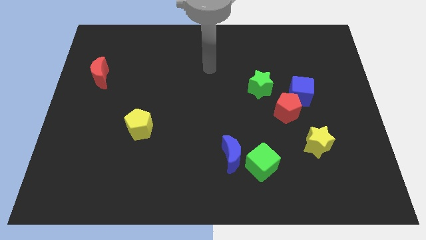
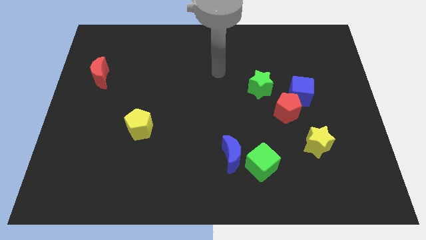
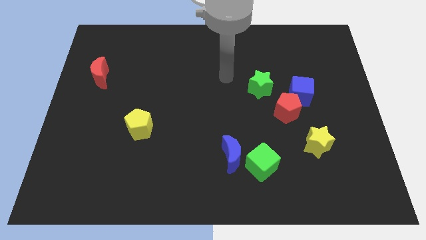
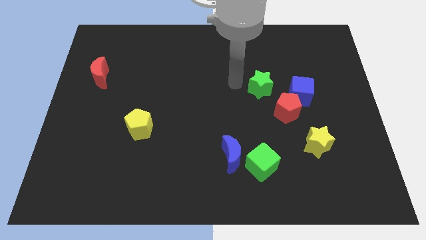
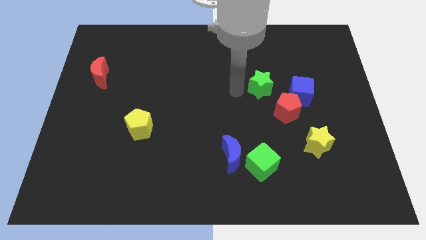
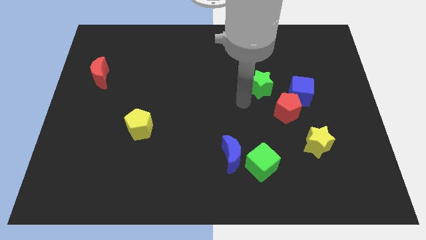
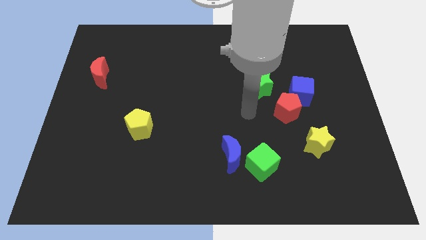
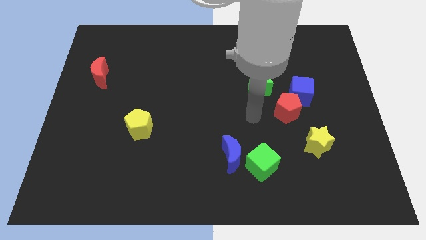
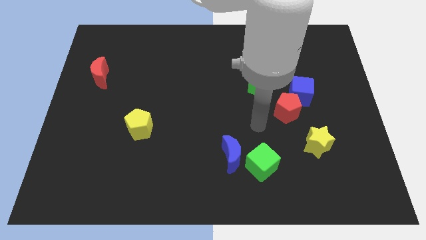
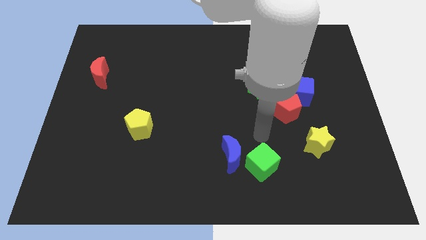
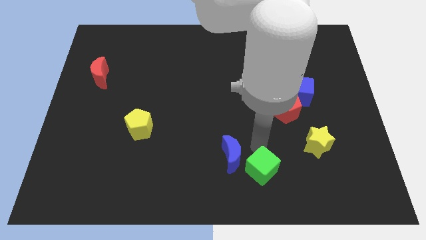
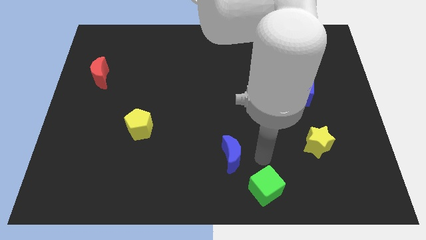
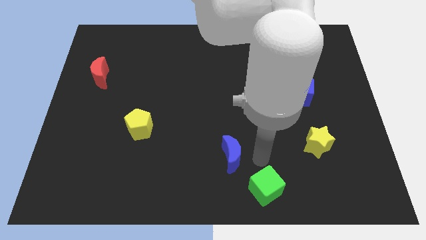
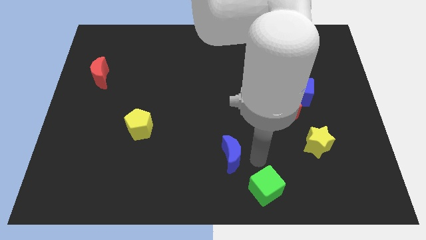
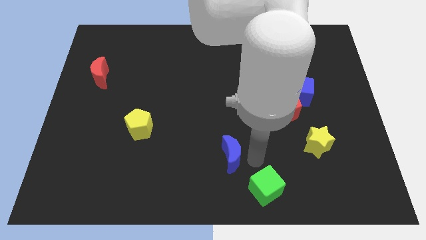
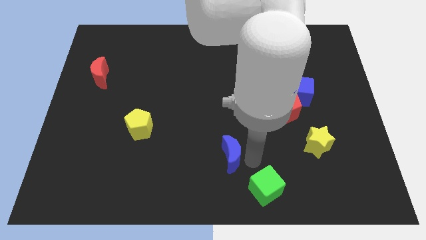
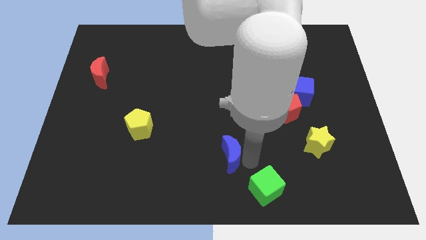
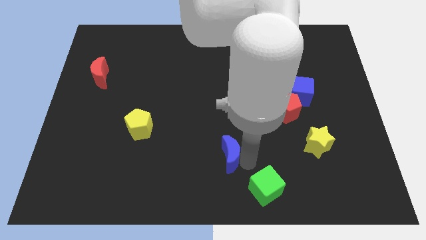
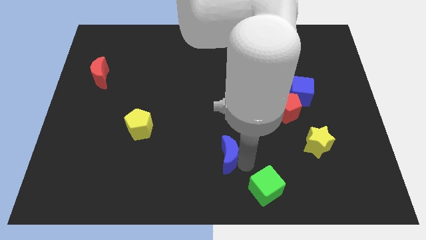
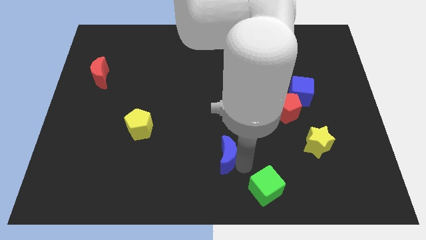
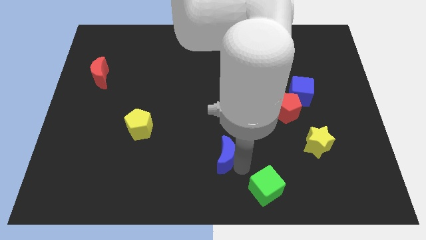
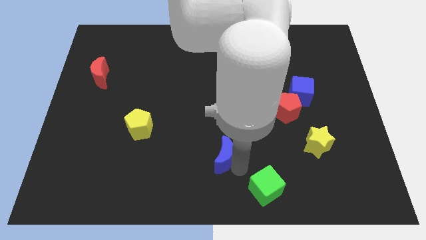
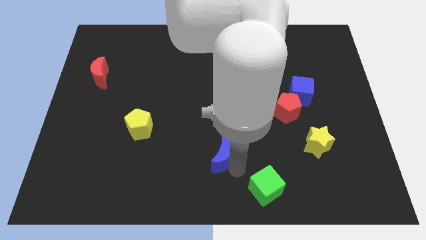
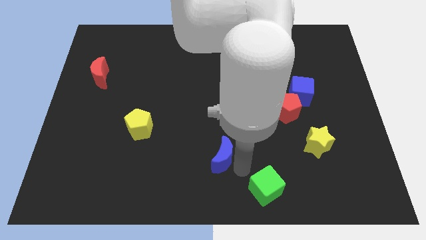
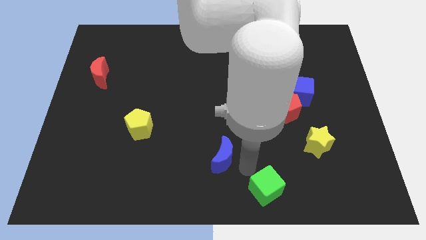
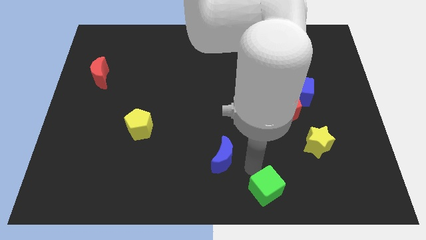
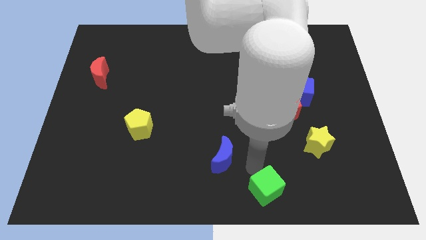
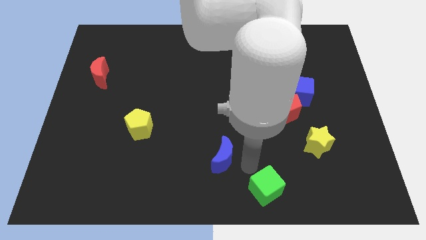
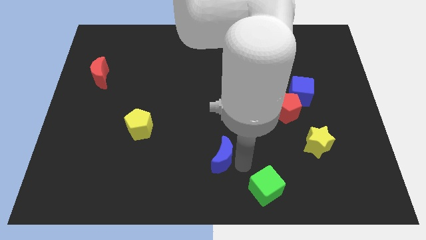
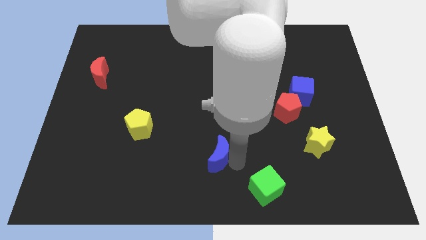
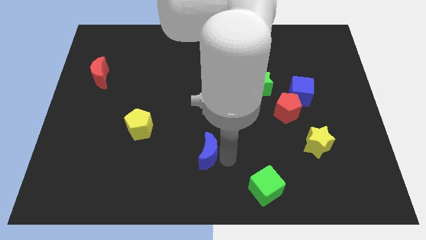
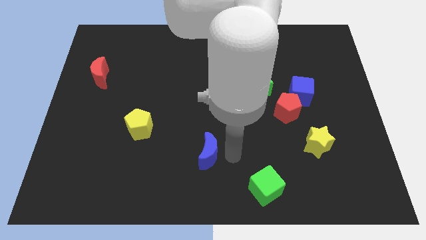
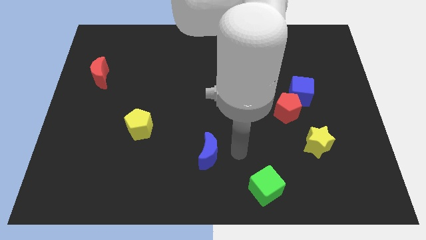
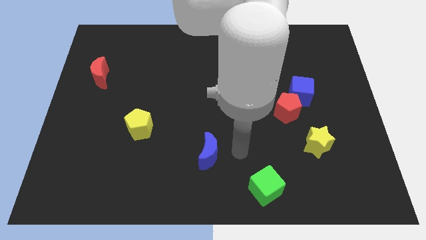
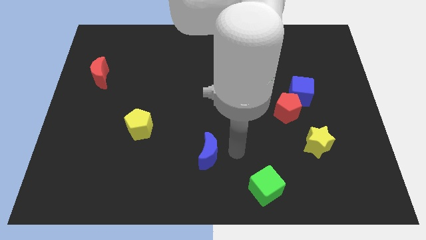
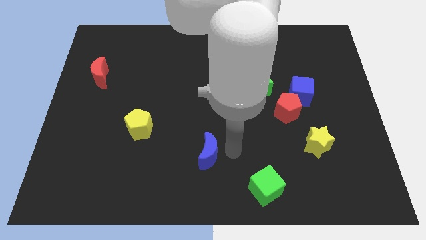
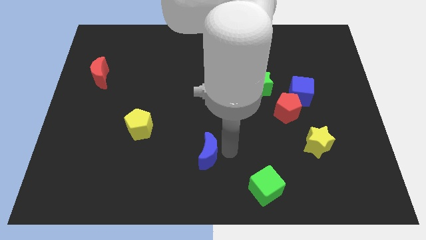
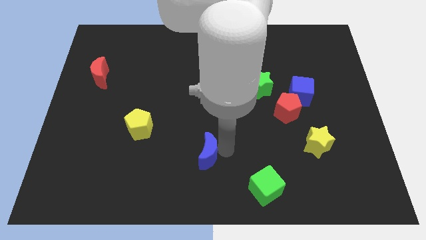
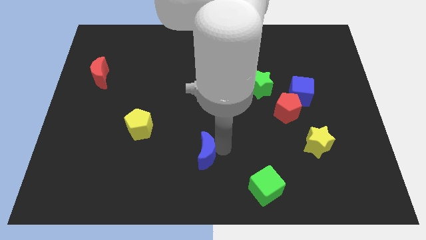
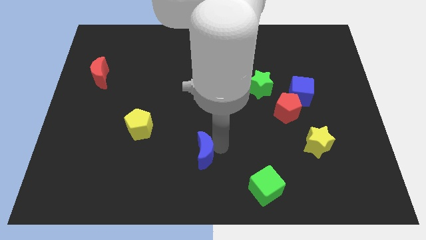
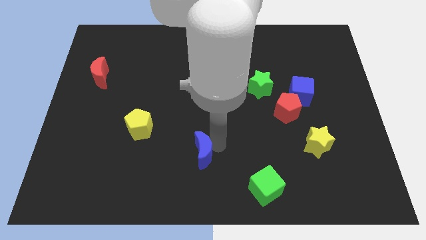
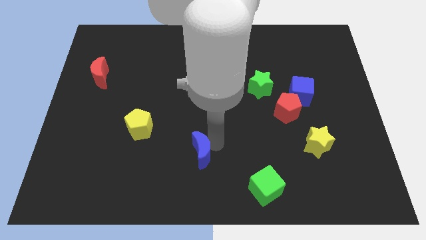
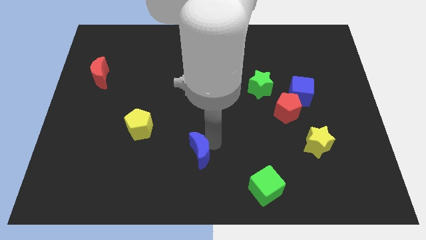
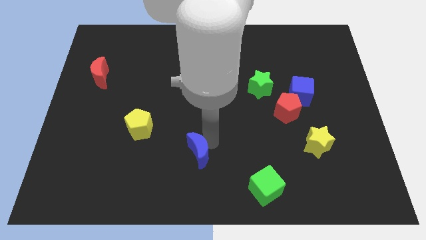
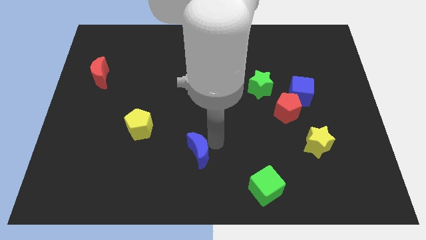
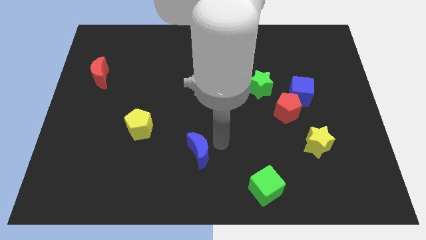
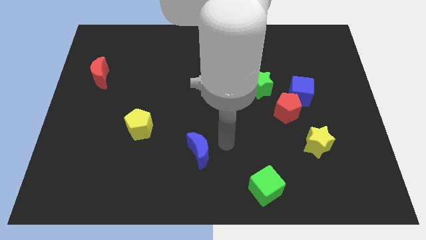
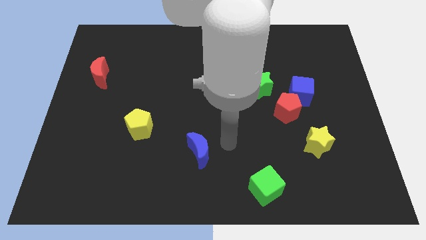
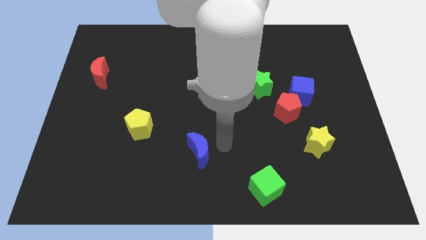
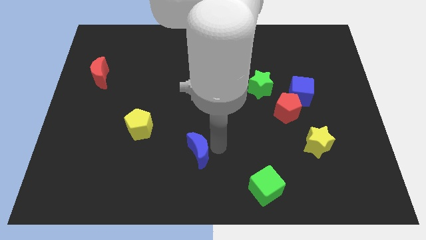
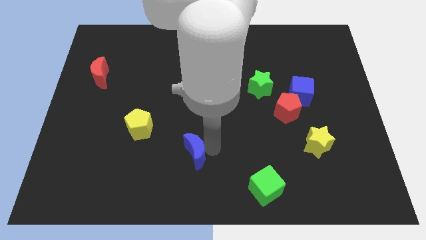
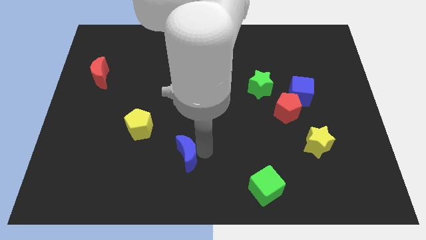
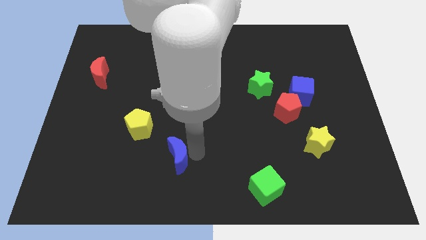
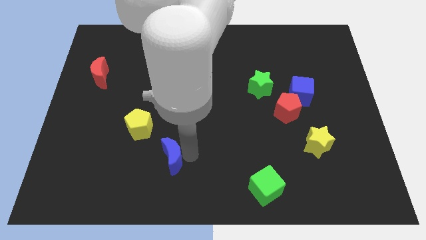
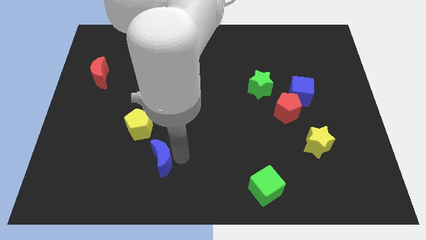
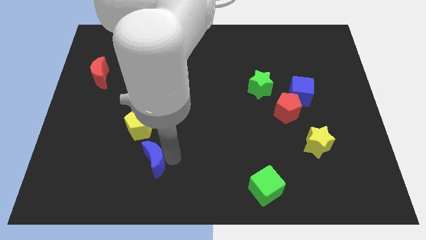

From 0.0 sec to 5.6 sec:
move the blue moon below the yellow pentagon

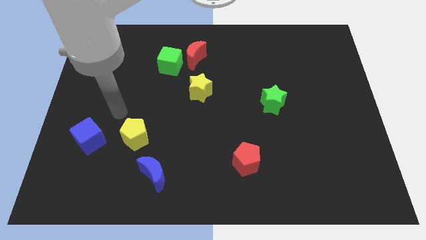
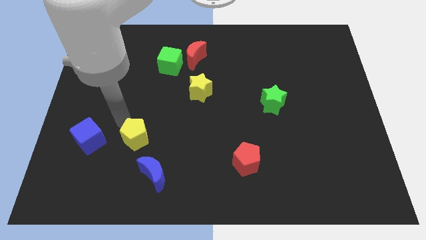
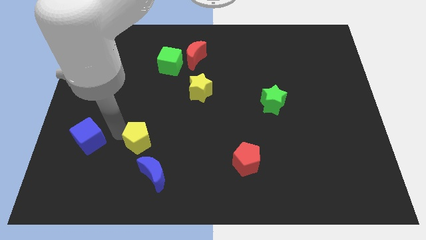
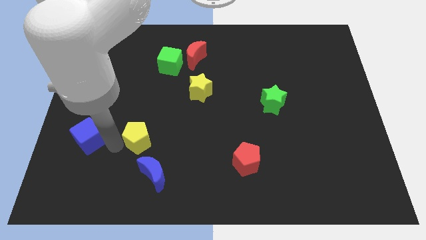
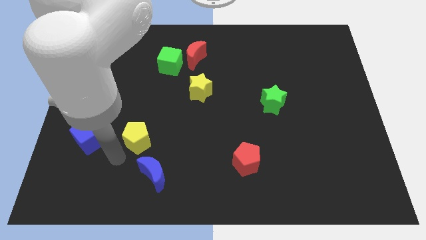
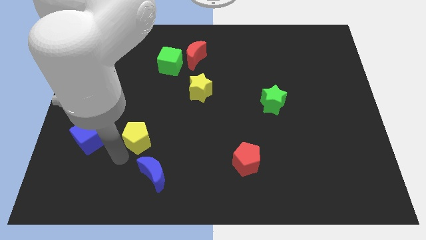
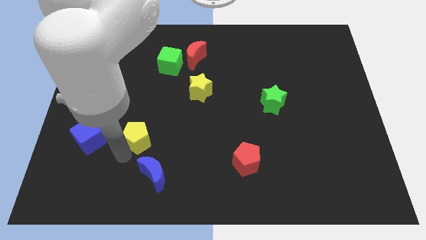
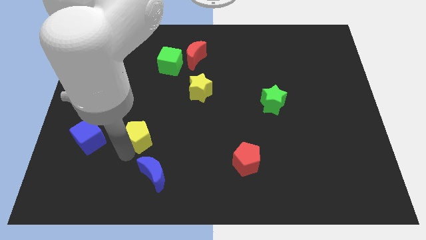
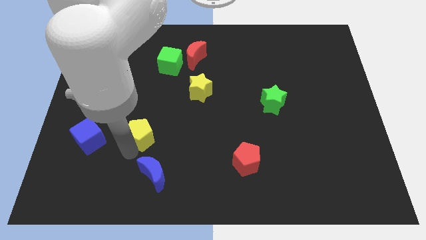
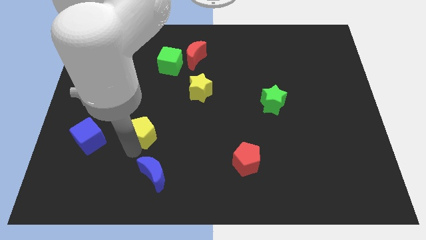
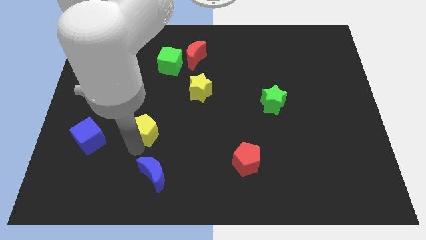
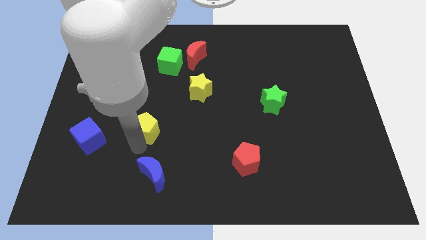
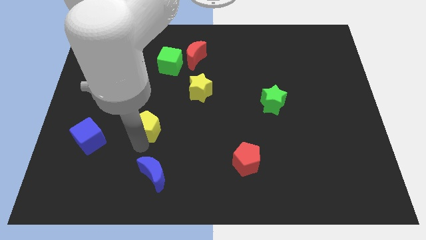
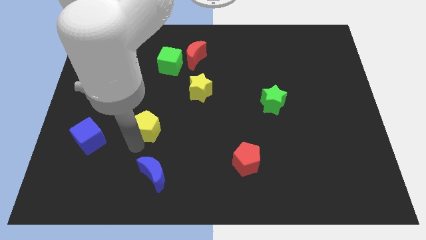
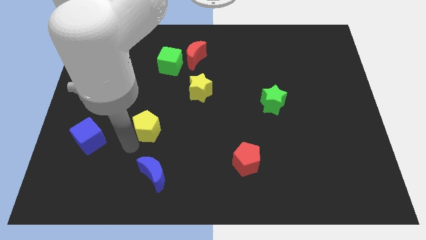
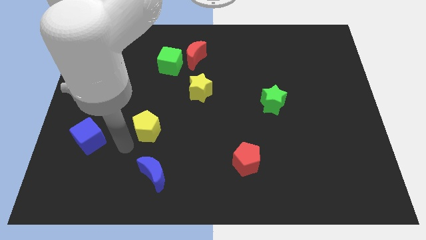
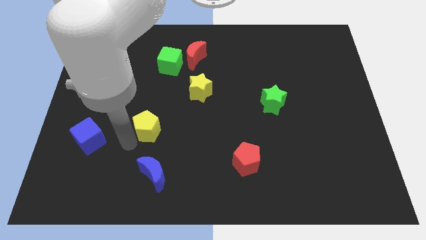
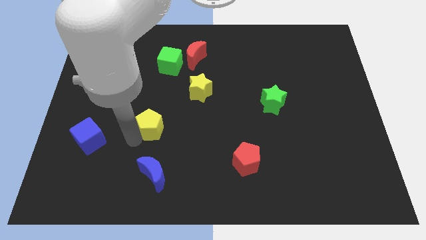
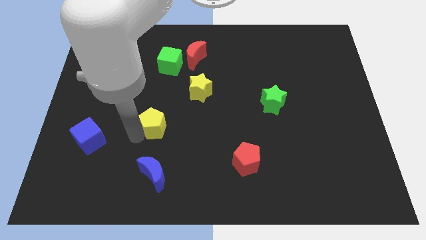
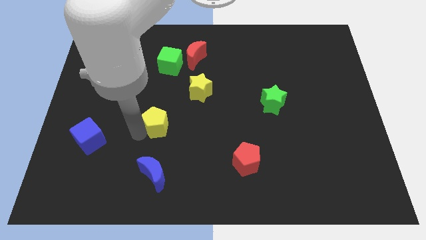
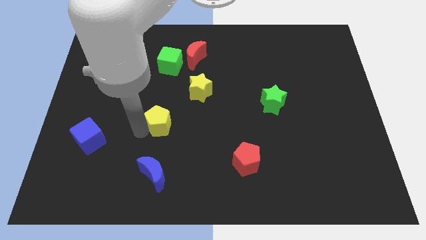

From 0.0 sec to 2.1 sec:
push the yellow pentagon to the bottom left side of the yellow star
